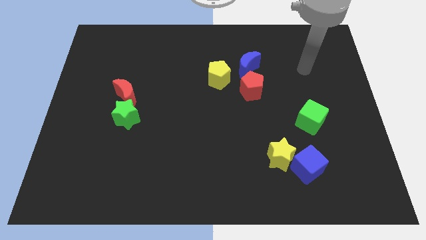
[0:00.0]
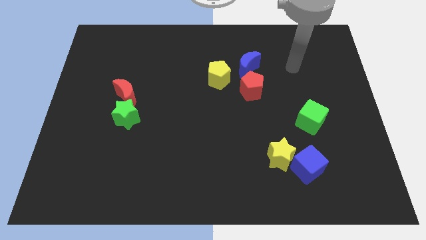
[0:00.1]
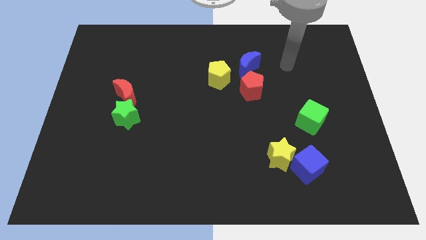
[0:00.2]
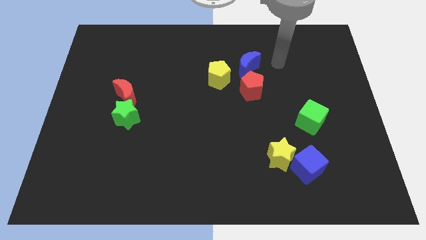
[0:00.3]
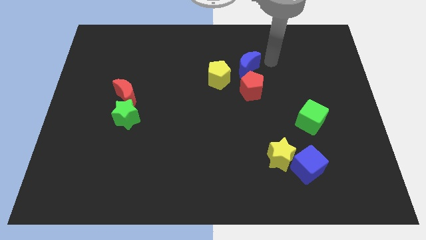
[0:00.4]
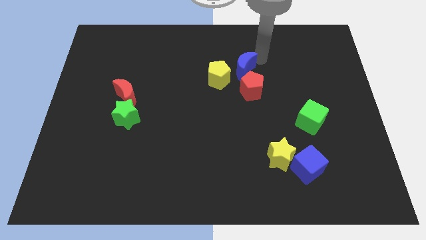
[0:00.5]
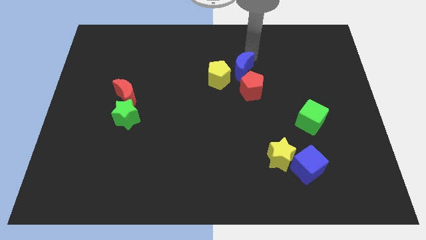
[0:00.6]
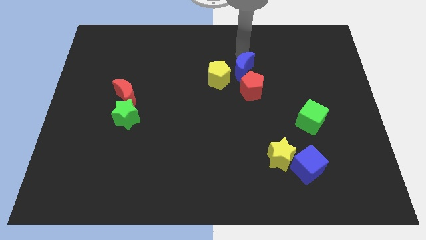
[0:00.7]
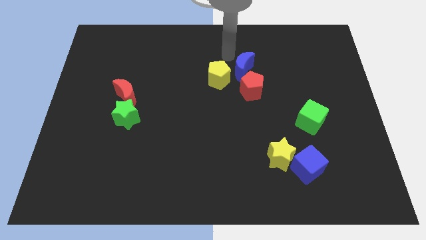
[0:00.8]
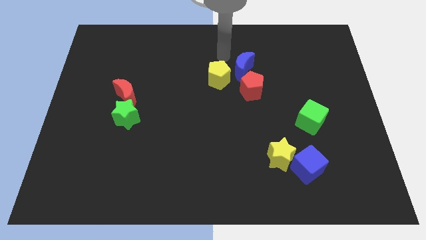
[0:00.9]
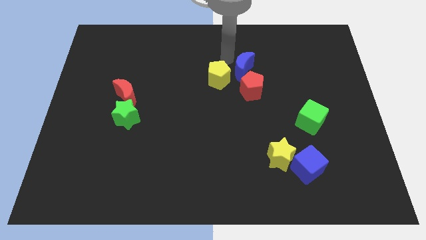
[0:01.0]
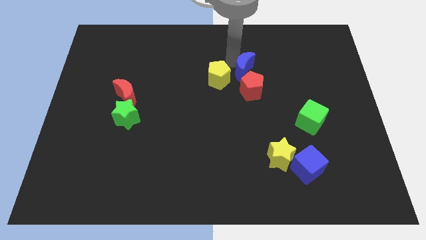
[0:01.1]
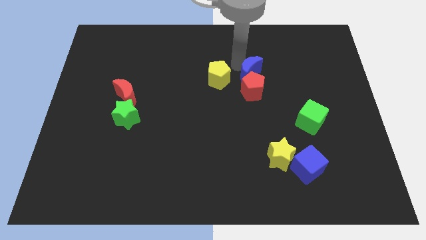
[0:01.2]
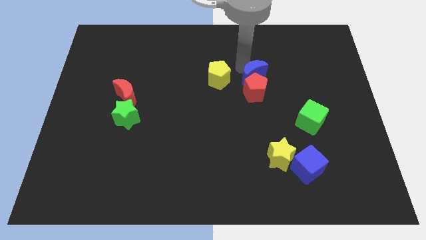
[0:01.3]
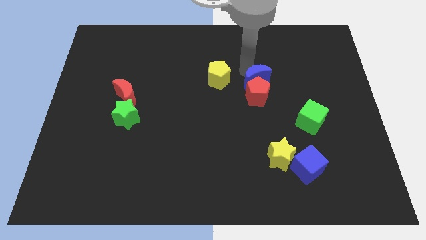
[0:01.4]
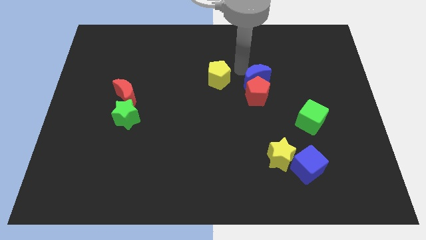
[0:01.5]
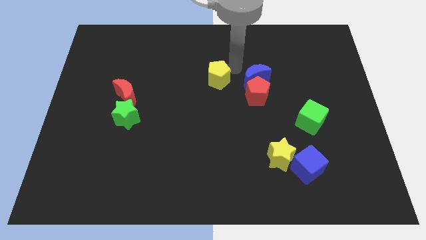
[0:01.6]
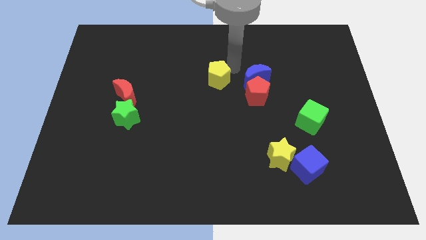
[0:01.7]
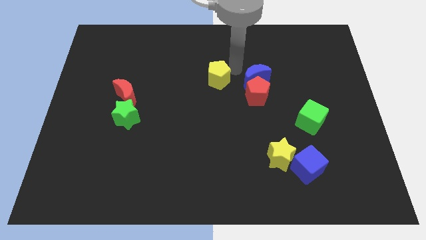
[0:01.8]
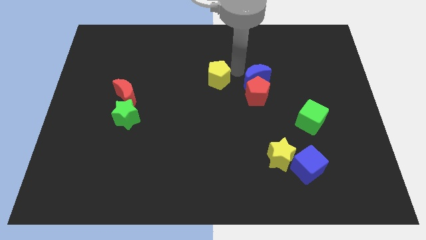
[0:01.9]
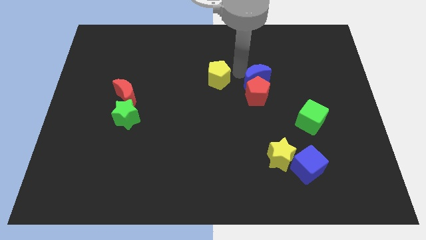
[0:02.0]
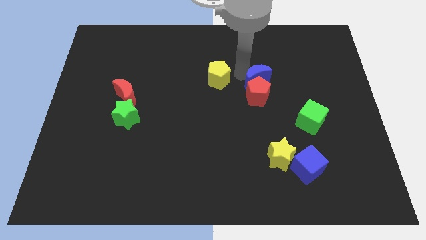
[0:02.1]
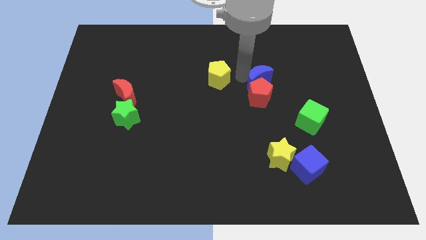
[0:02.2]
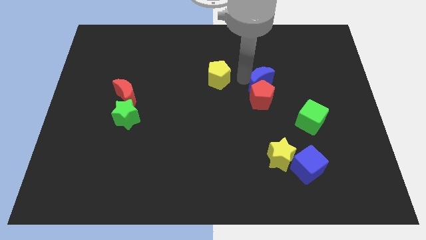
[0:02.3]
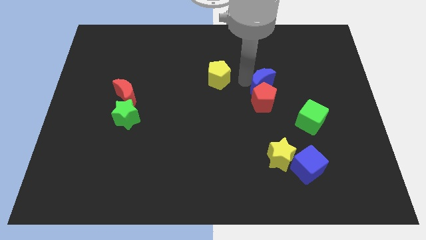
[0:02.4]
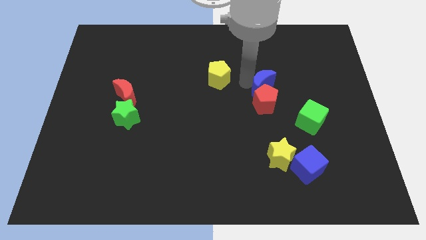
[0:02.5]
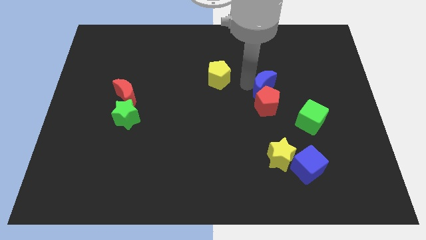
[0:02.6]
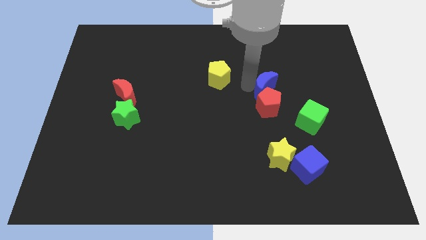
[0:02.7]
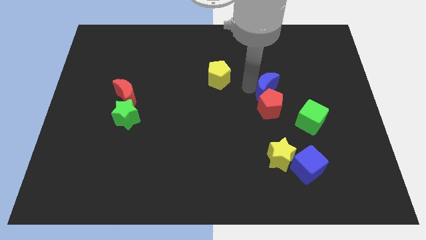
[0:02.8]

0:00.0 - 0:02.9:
slide the blue moon slightly downwards

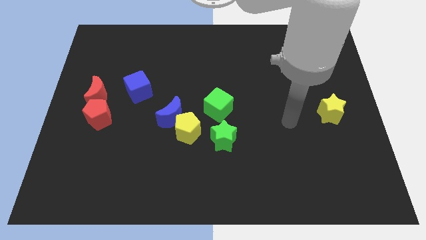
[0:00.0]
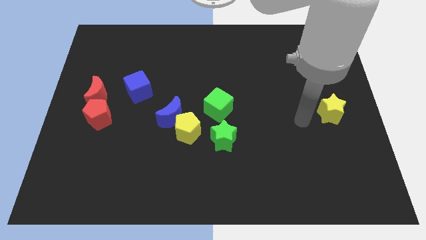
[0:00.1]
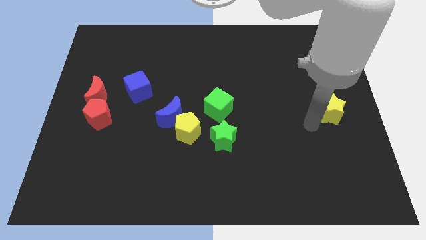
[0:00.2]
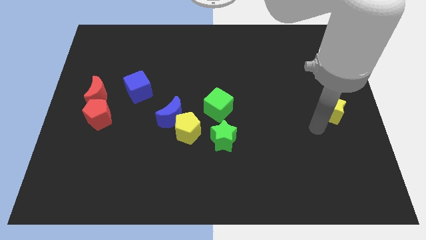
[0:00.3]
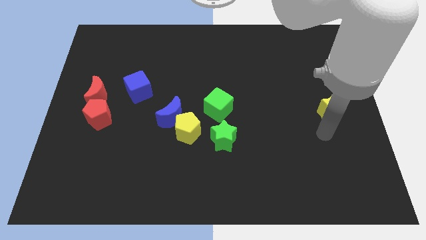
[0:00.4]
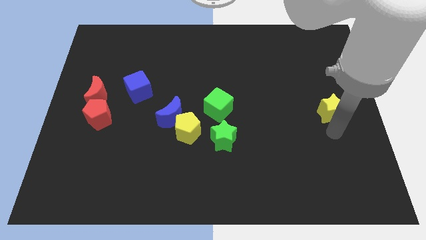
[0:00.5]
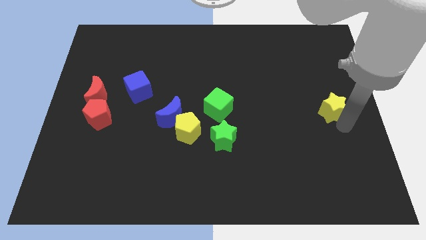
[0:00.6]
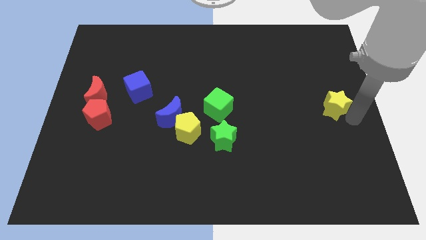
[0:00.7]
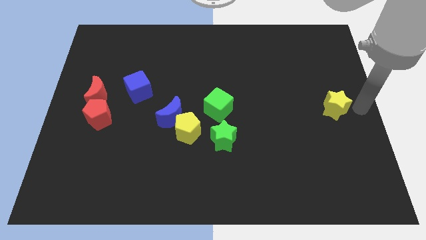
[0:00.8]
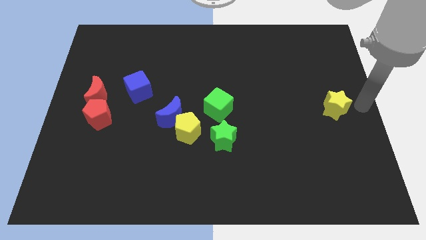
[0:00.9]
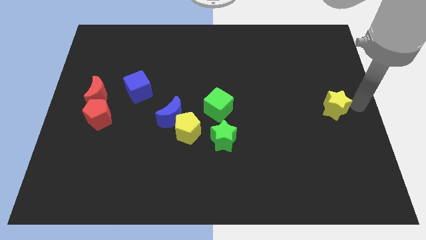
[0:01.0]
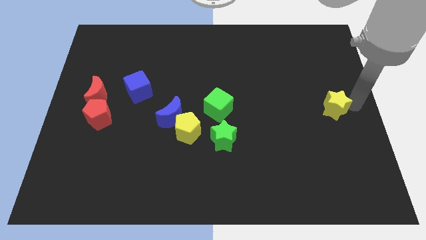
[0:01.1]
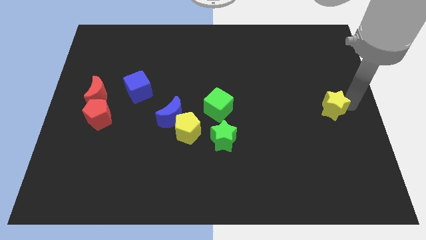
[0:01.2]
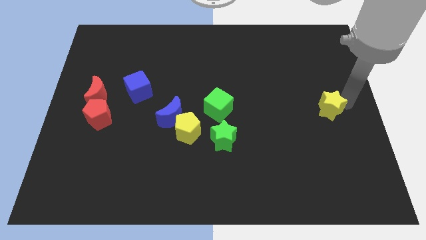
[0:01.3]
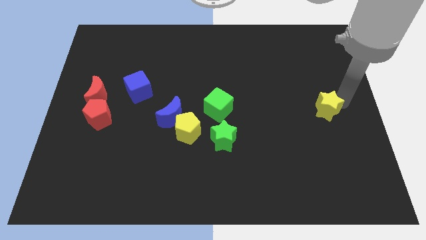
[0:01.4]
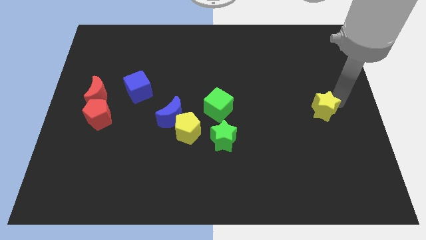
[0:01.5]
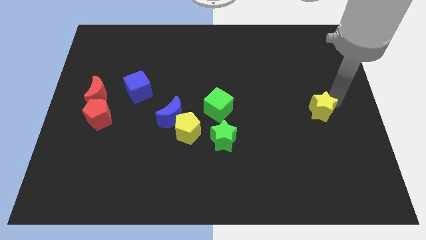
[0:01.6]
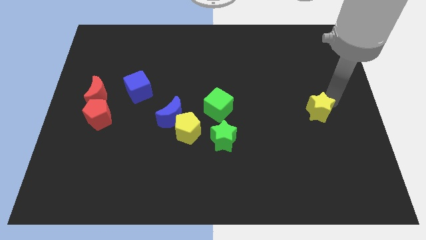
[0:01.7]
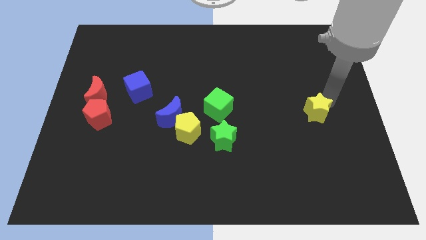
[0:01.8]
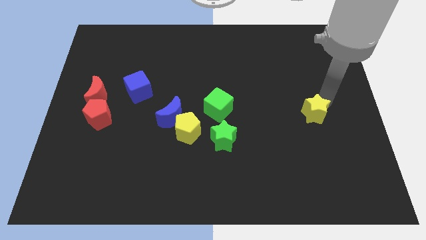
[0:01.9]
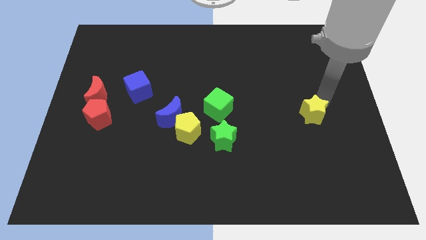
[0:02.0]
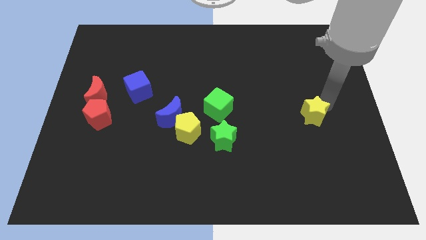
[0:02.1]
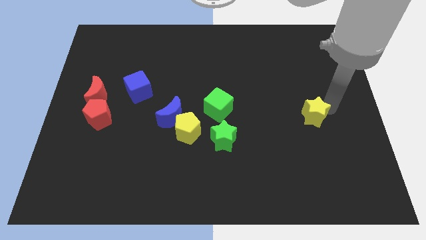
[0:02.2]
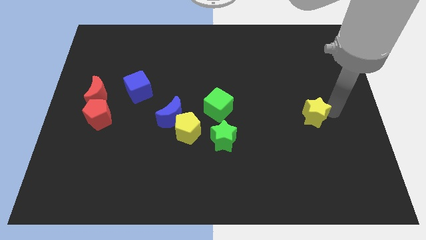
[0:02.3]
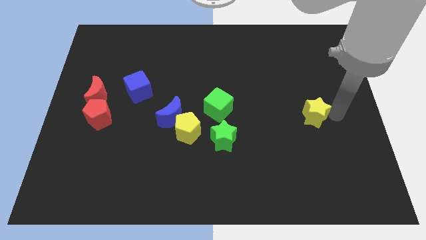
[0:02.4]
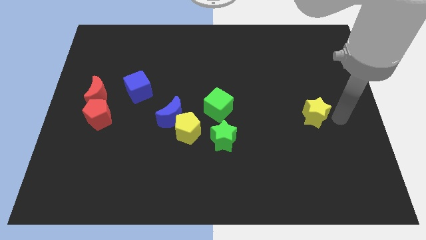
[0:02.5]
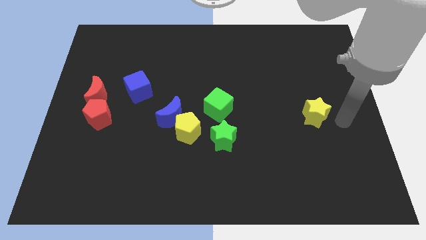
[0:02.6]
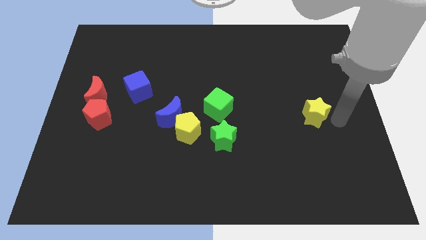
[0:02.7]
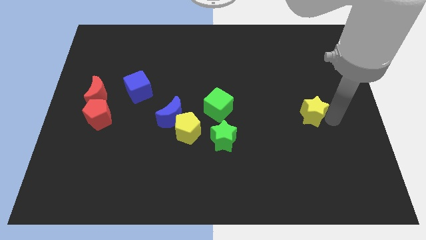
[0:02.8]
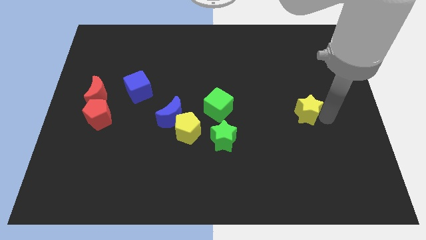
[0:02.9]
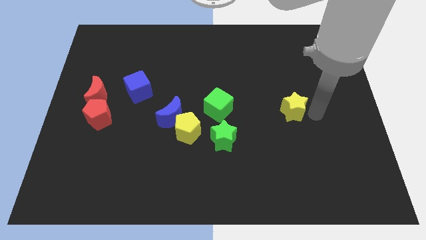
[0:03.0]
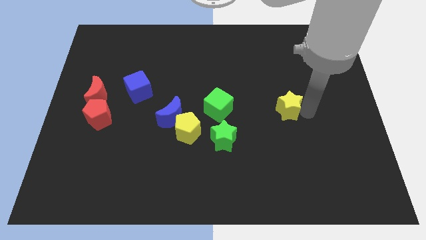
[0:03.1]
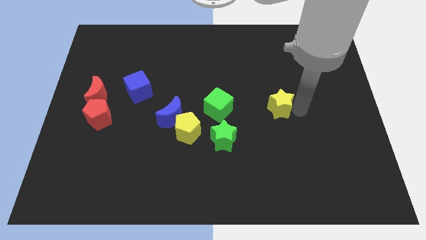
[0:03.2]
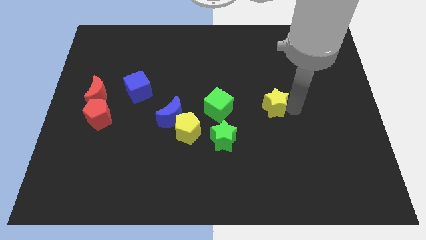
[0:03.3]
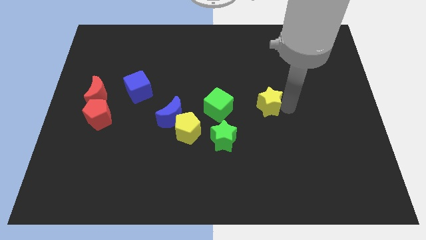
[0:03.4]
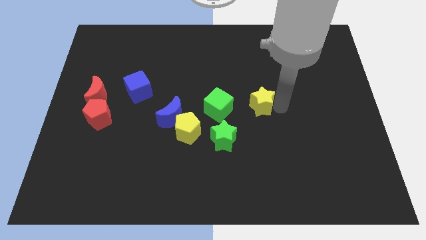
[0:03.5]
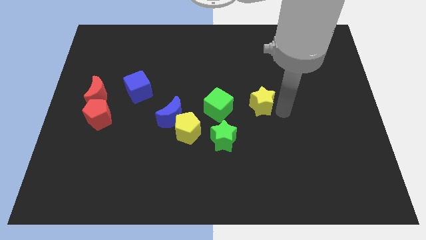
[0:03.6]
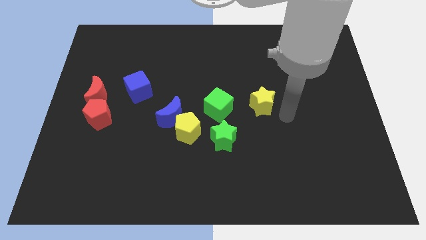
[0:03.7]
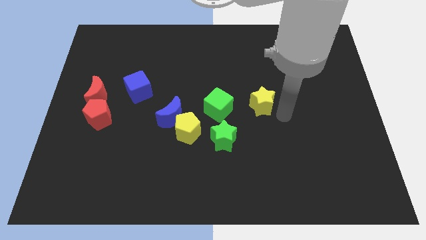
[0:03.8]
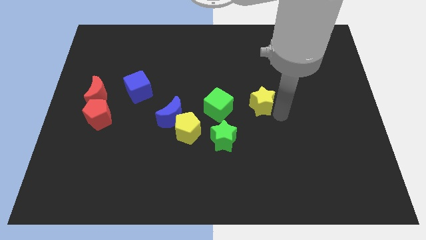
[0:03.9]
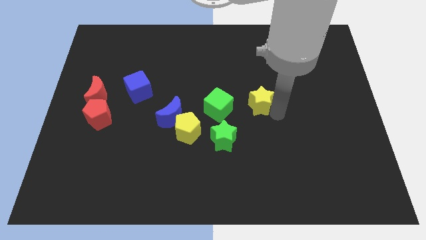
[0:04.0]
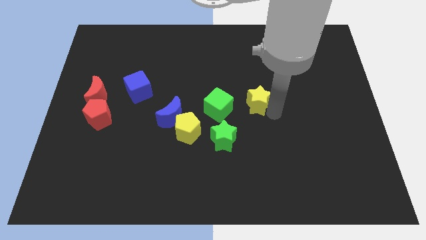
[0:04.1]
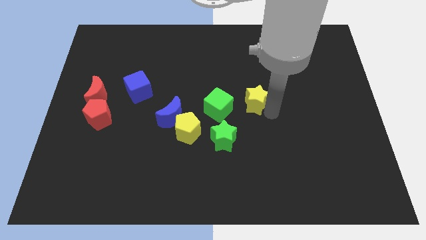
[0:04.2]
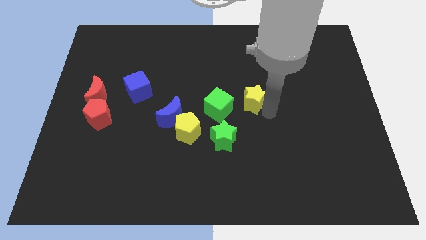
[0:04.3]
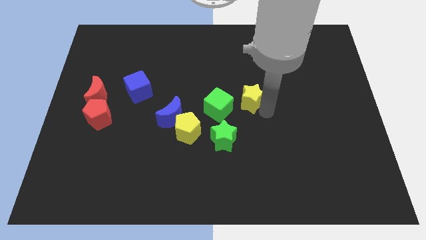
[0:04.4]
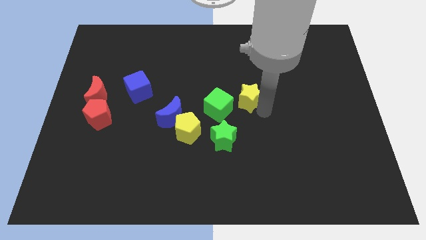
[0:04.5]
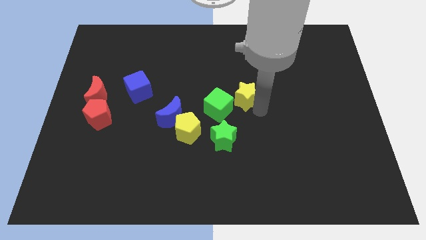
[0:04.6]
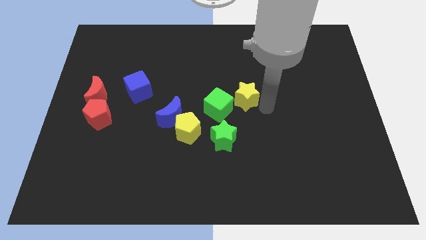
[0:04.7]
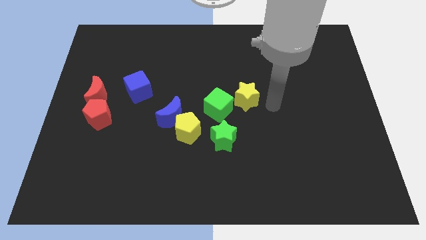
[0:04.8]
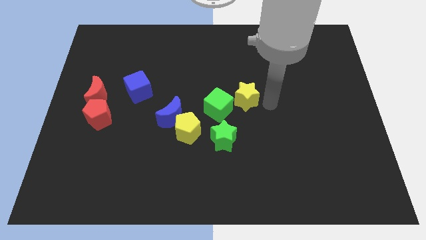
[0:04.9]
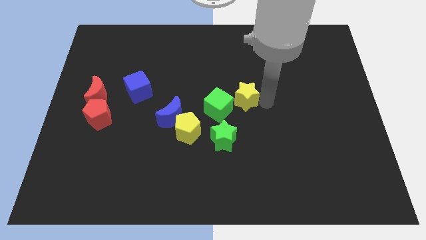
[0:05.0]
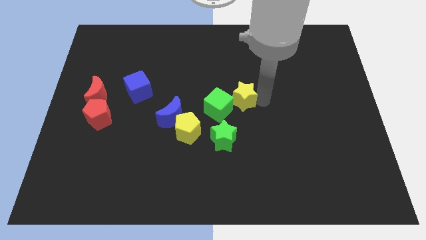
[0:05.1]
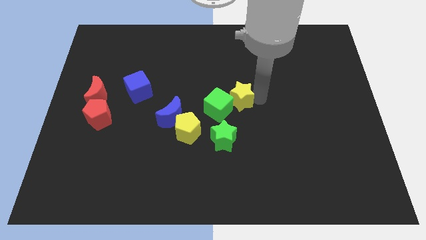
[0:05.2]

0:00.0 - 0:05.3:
push the yellow star left
